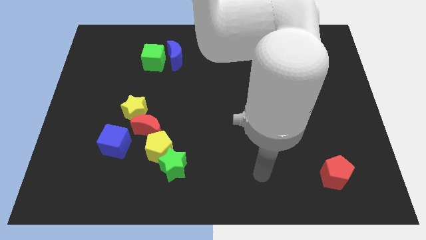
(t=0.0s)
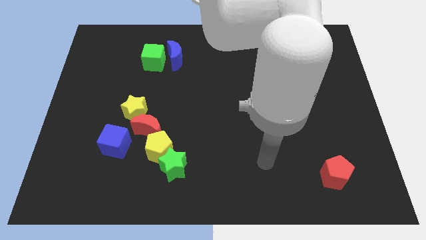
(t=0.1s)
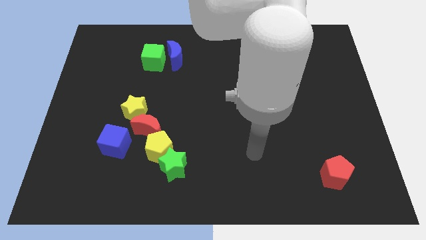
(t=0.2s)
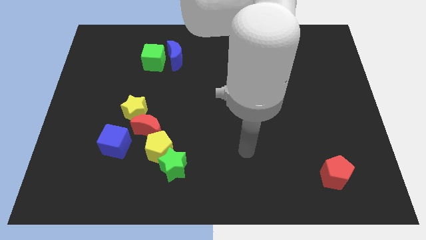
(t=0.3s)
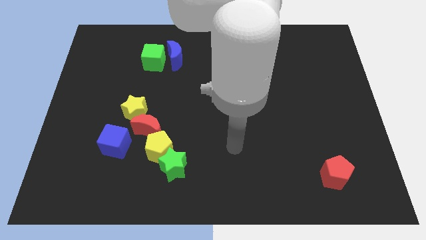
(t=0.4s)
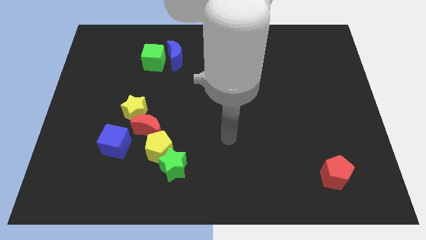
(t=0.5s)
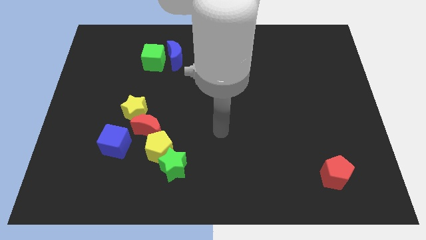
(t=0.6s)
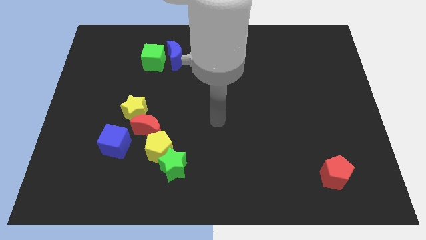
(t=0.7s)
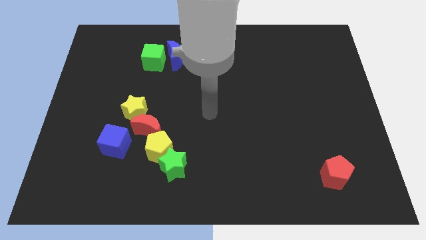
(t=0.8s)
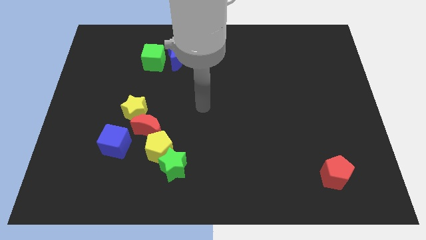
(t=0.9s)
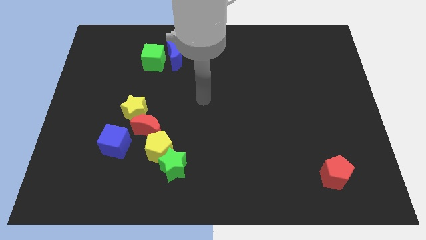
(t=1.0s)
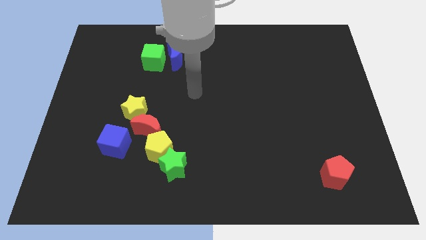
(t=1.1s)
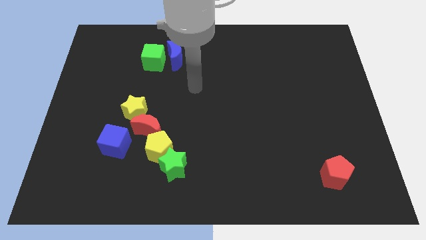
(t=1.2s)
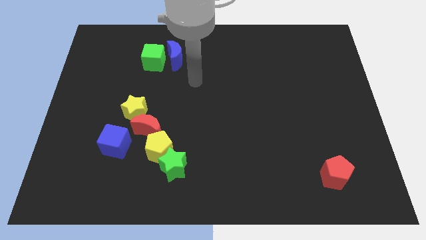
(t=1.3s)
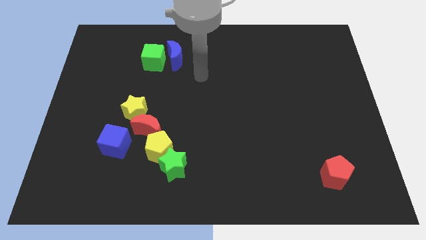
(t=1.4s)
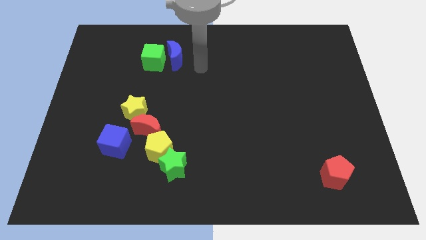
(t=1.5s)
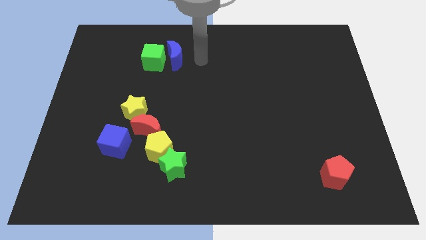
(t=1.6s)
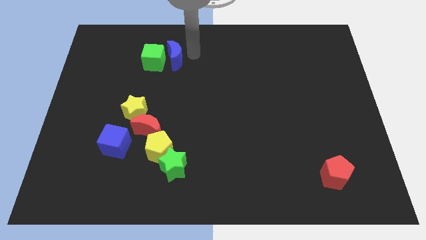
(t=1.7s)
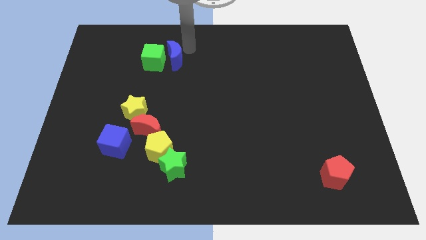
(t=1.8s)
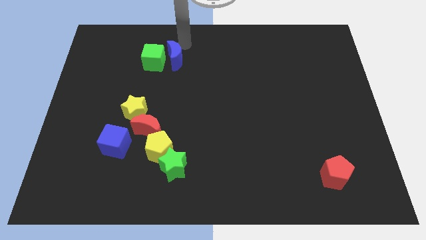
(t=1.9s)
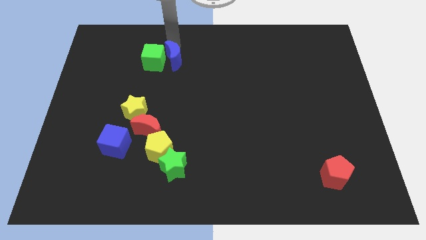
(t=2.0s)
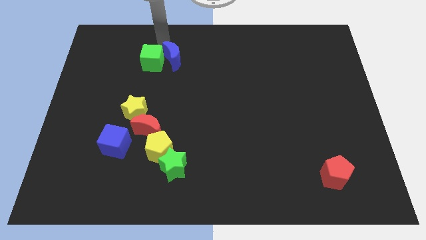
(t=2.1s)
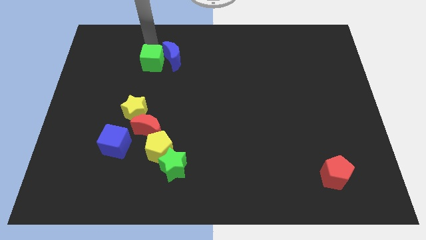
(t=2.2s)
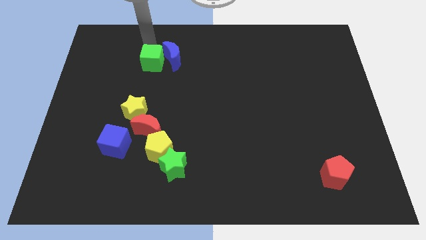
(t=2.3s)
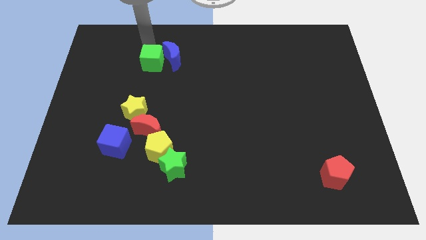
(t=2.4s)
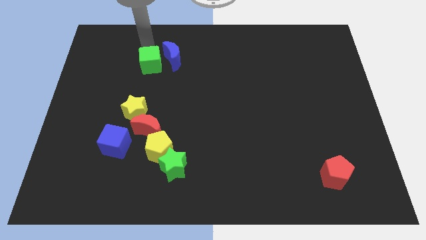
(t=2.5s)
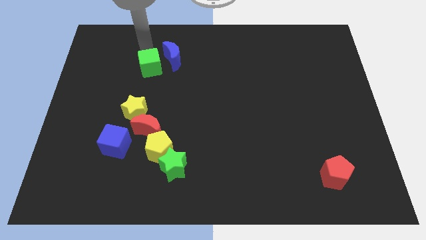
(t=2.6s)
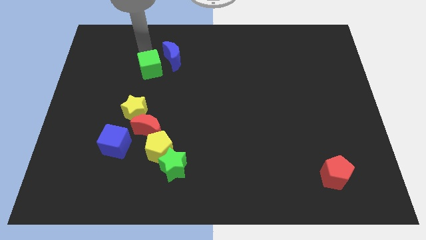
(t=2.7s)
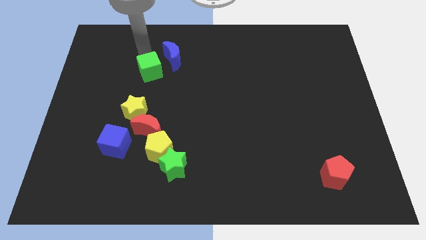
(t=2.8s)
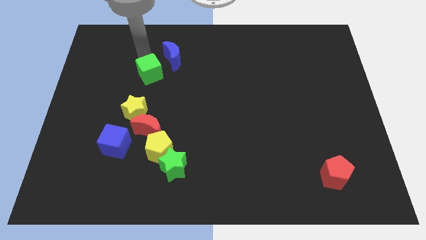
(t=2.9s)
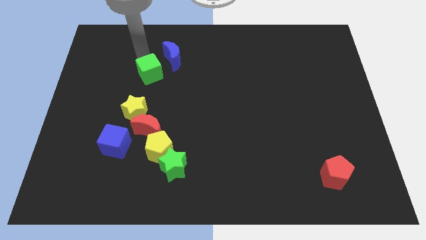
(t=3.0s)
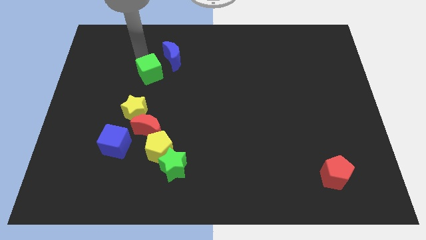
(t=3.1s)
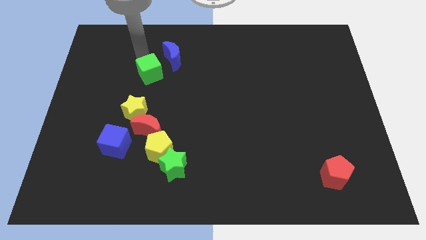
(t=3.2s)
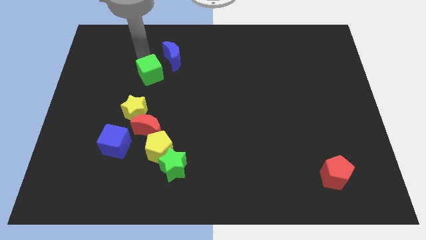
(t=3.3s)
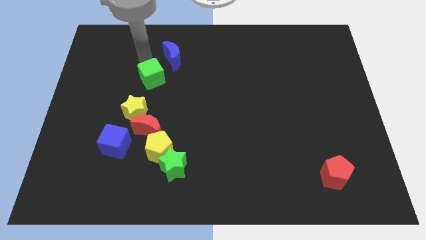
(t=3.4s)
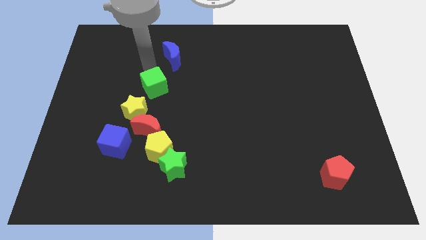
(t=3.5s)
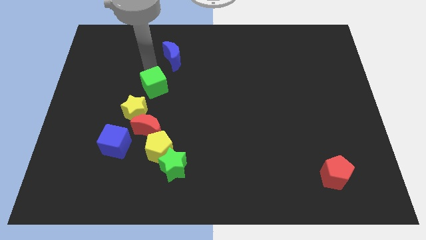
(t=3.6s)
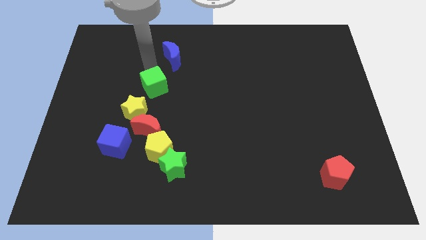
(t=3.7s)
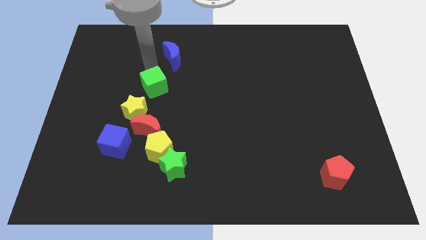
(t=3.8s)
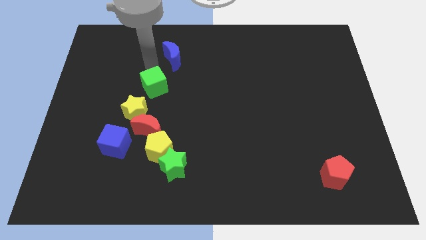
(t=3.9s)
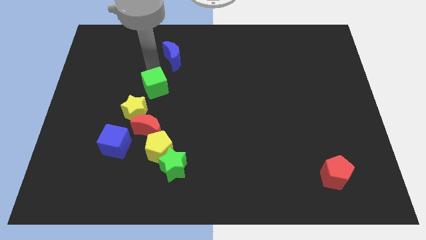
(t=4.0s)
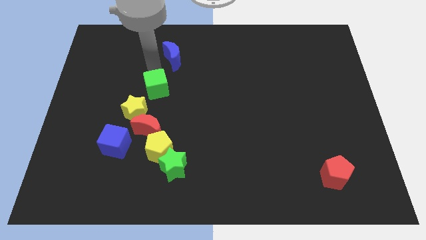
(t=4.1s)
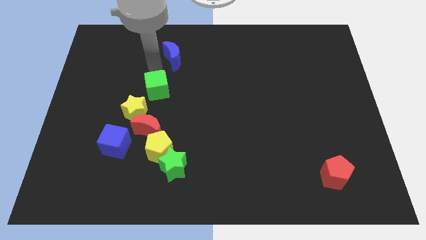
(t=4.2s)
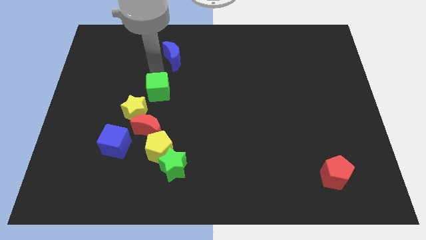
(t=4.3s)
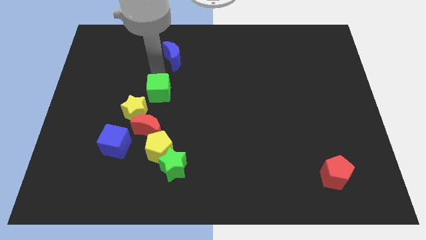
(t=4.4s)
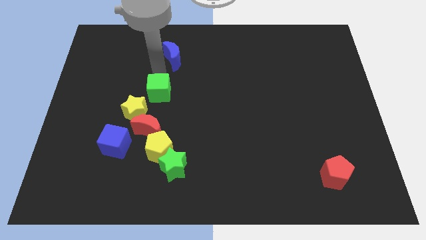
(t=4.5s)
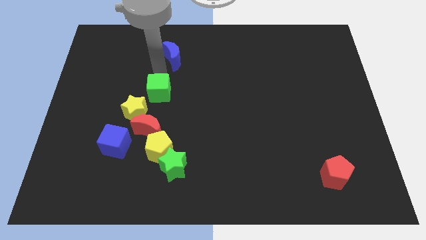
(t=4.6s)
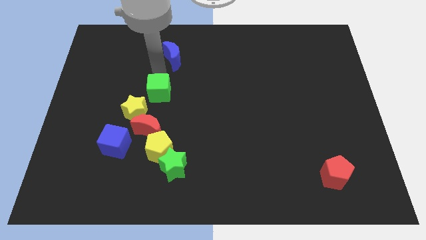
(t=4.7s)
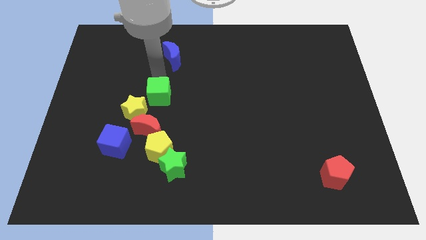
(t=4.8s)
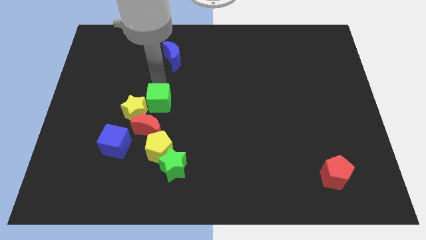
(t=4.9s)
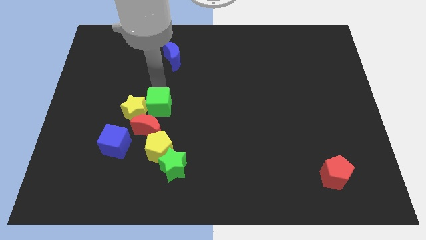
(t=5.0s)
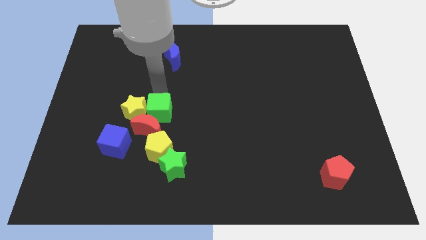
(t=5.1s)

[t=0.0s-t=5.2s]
put the green cube next to the red moon

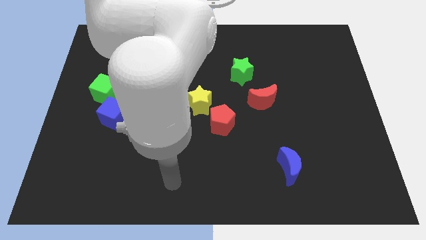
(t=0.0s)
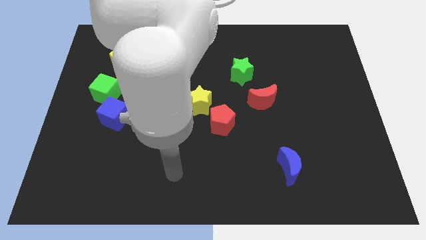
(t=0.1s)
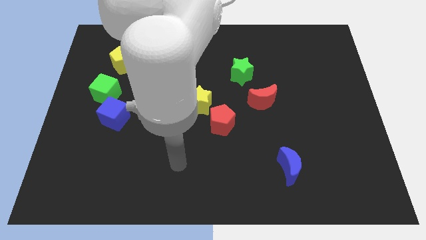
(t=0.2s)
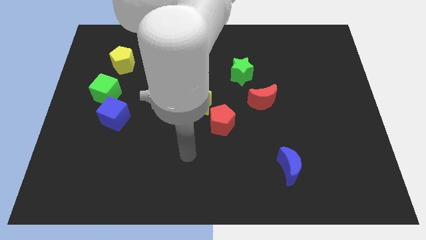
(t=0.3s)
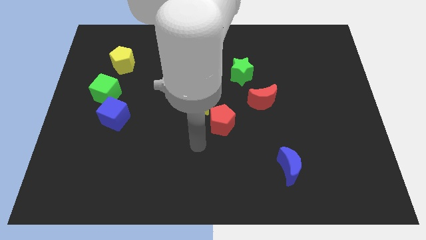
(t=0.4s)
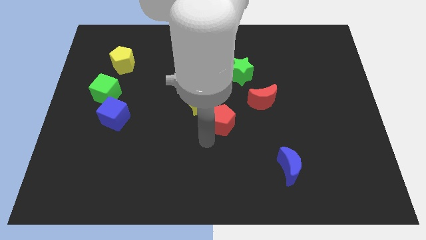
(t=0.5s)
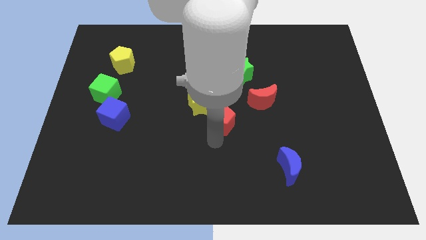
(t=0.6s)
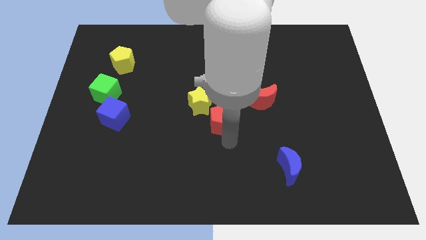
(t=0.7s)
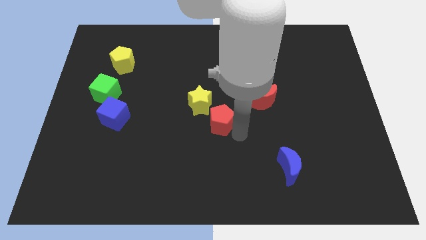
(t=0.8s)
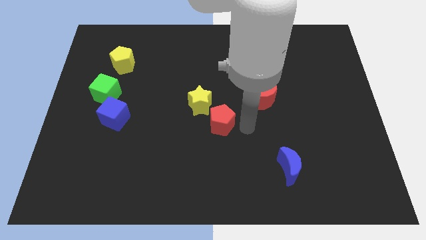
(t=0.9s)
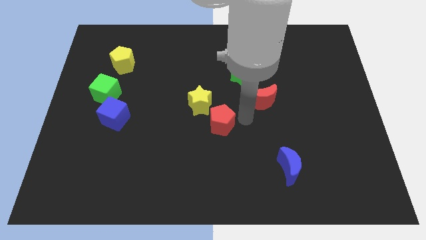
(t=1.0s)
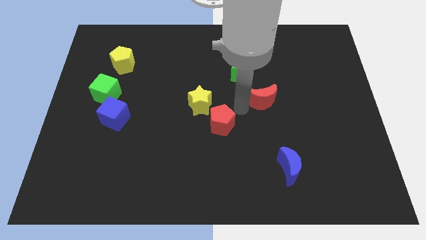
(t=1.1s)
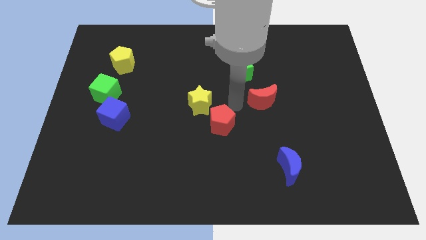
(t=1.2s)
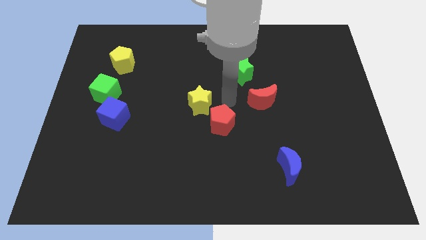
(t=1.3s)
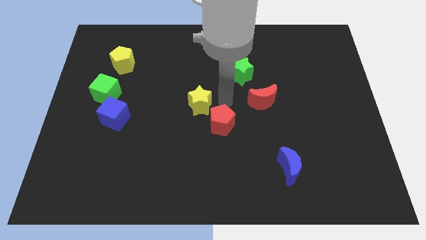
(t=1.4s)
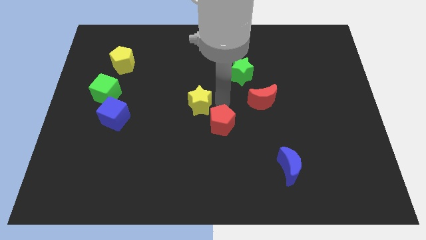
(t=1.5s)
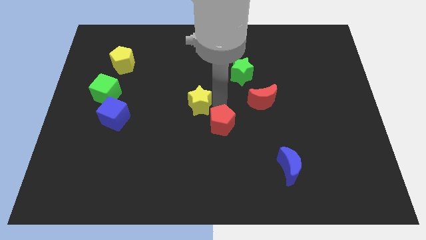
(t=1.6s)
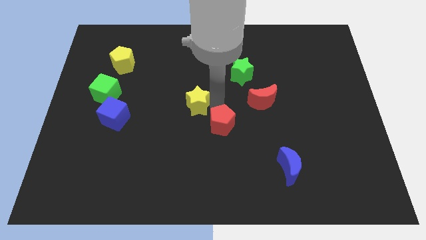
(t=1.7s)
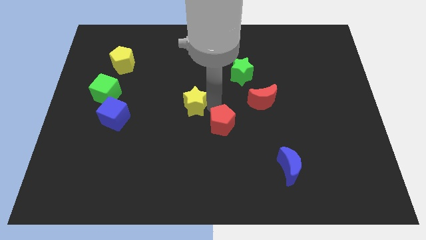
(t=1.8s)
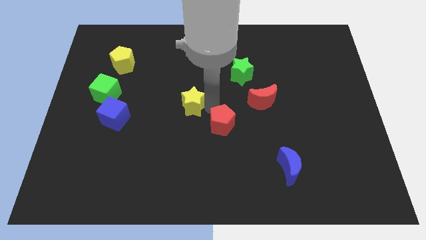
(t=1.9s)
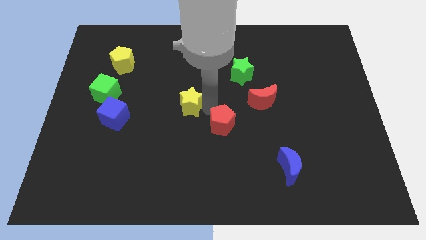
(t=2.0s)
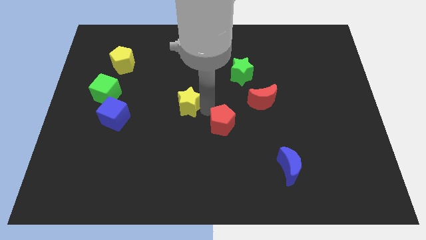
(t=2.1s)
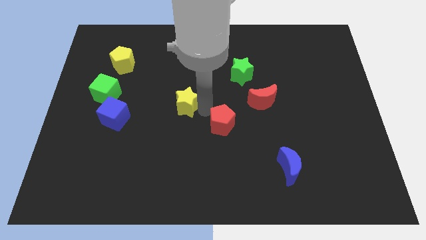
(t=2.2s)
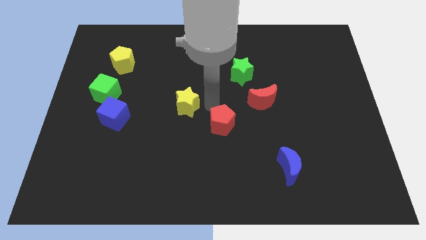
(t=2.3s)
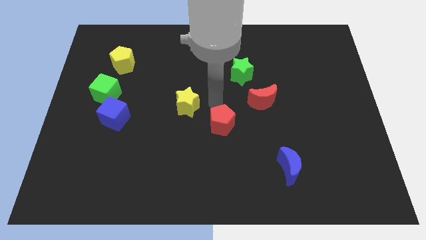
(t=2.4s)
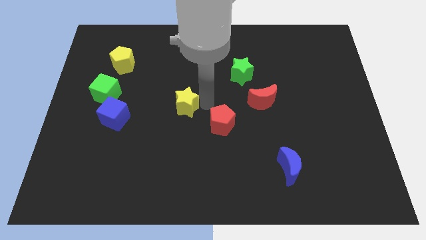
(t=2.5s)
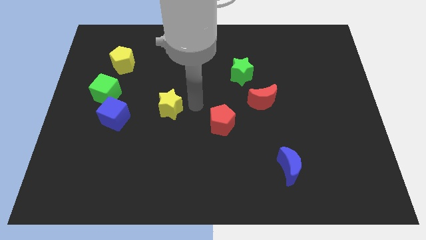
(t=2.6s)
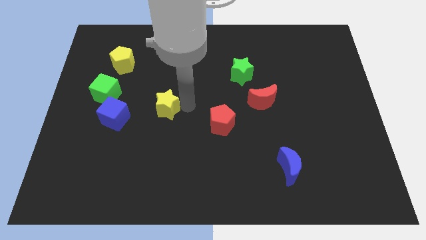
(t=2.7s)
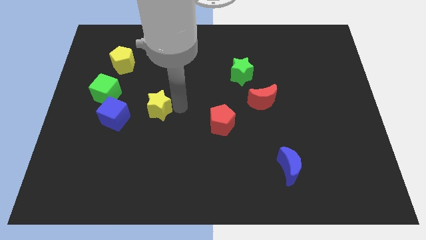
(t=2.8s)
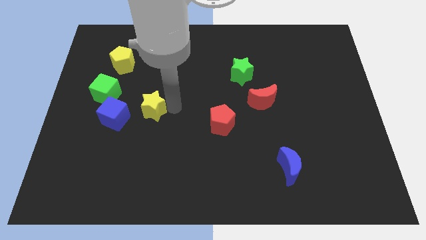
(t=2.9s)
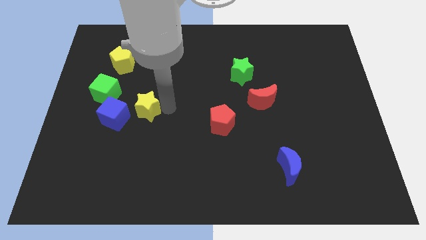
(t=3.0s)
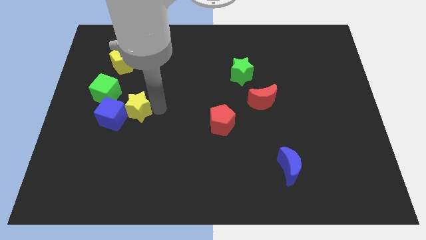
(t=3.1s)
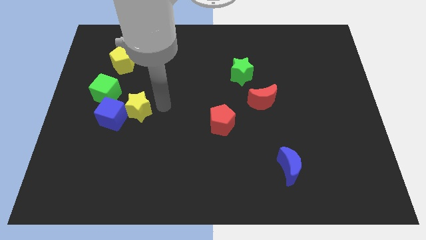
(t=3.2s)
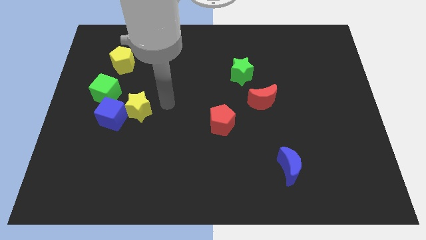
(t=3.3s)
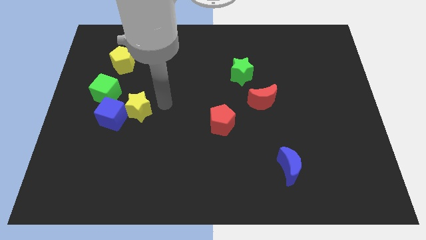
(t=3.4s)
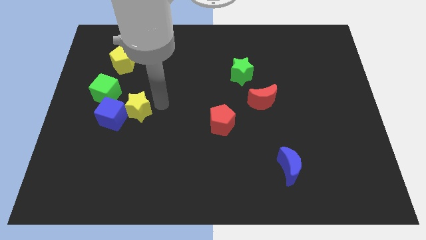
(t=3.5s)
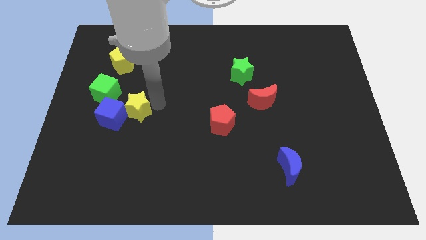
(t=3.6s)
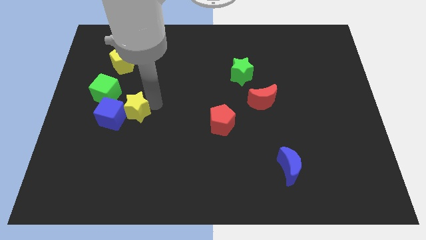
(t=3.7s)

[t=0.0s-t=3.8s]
push the yellow star close to the blue cube
